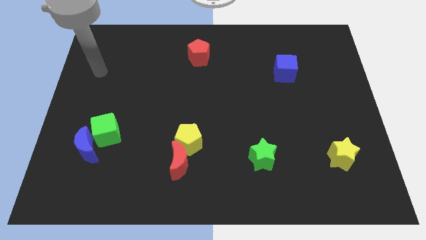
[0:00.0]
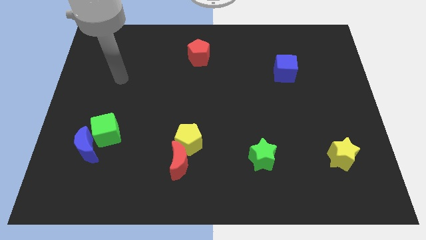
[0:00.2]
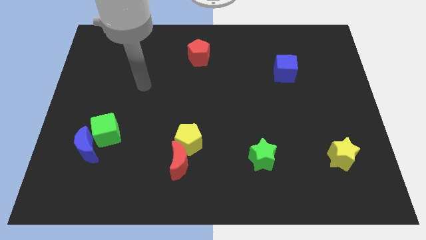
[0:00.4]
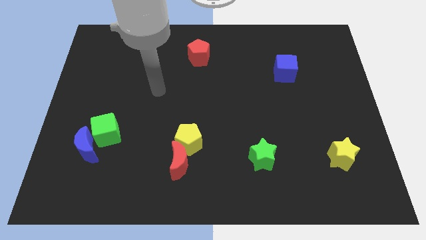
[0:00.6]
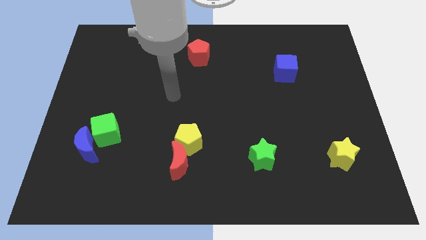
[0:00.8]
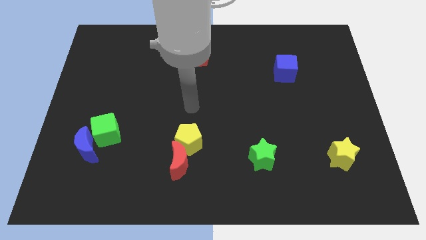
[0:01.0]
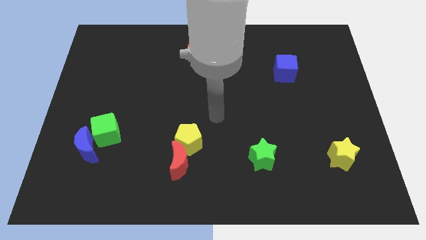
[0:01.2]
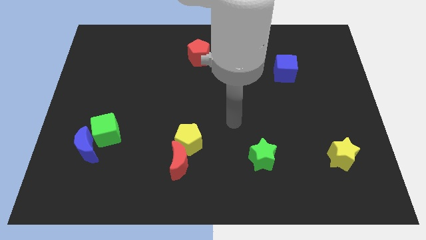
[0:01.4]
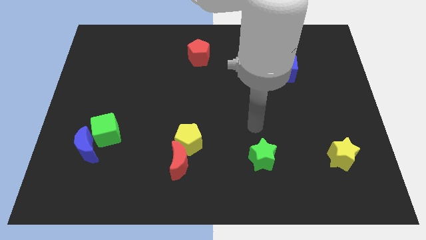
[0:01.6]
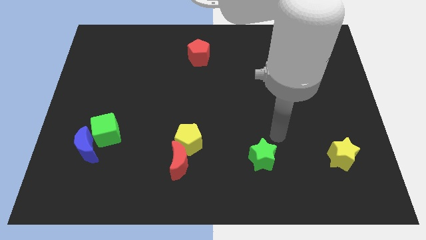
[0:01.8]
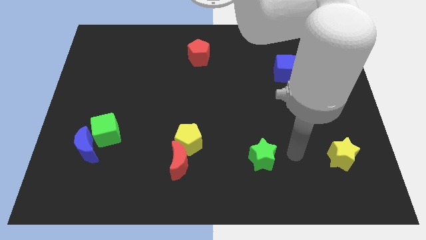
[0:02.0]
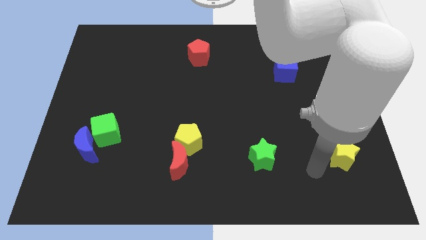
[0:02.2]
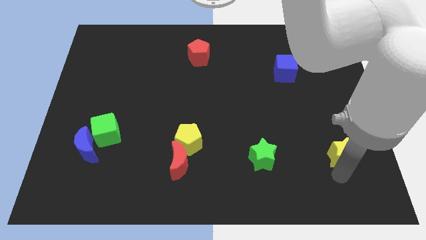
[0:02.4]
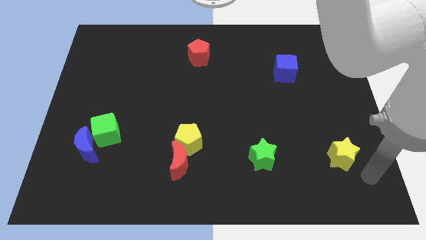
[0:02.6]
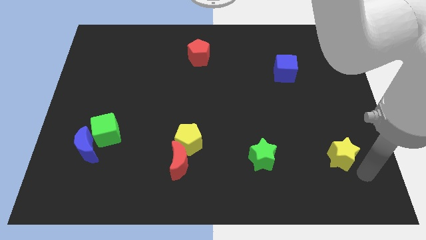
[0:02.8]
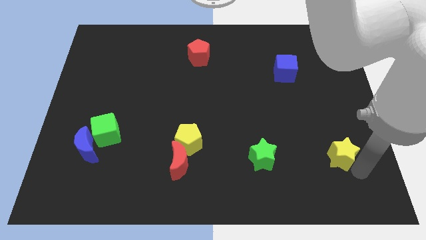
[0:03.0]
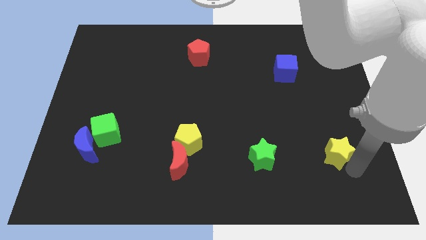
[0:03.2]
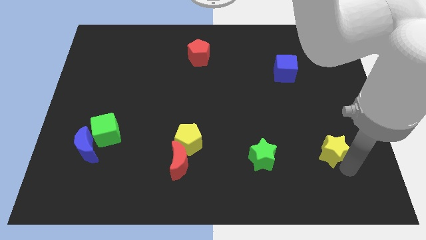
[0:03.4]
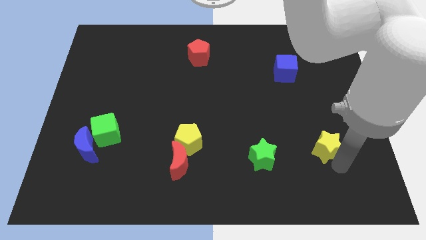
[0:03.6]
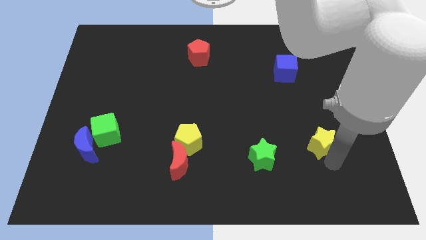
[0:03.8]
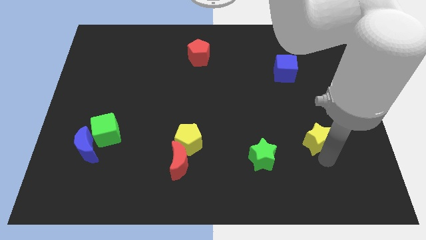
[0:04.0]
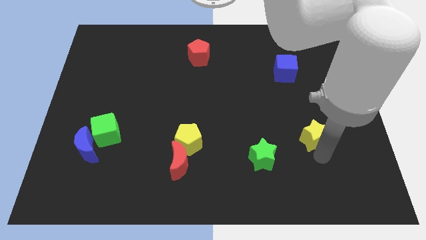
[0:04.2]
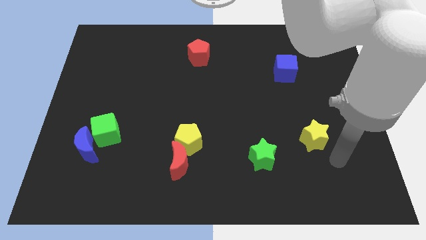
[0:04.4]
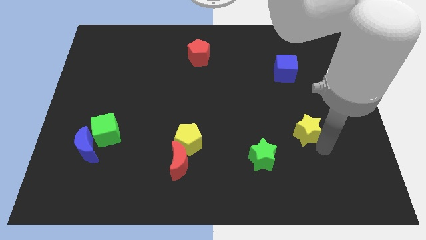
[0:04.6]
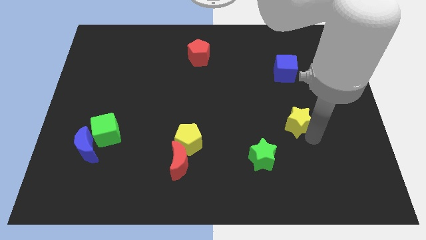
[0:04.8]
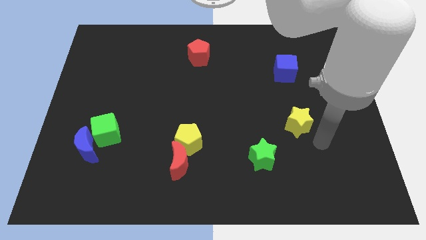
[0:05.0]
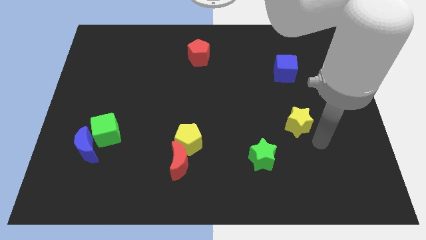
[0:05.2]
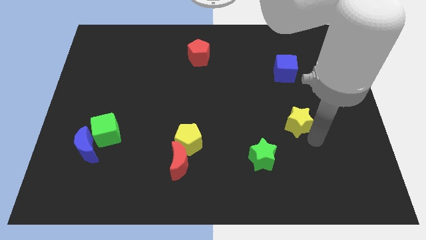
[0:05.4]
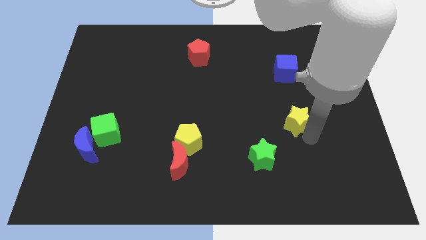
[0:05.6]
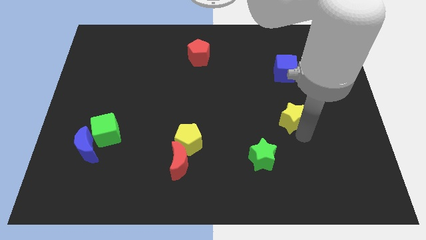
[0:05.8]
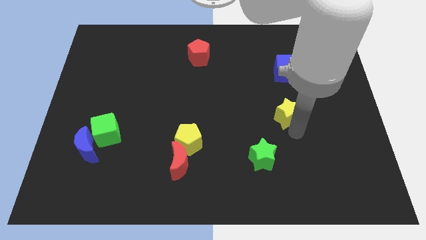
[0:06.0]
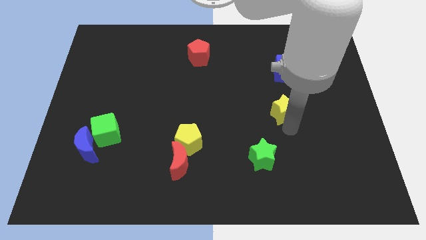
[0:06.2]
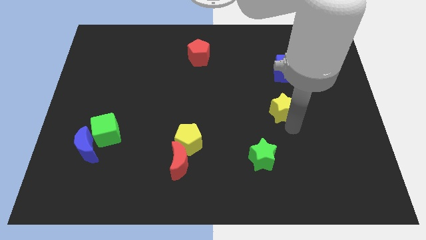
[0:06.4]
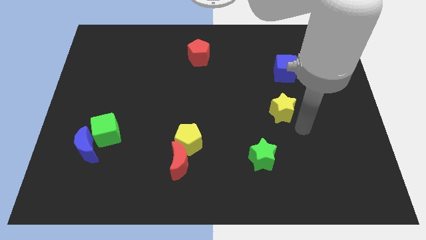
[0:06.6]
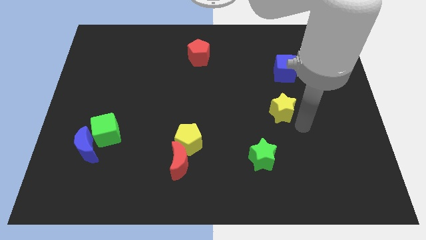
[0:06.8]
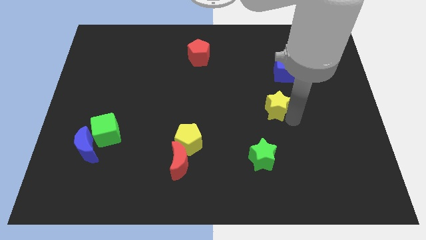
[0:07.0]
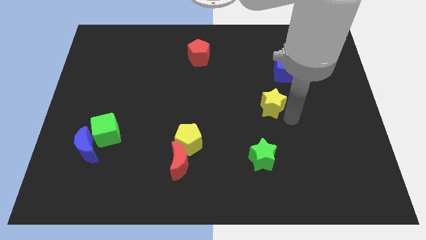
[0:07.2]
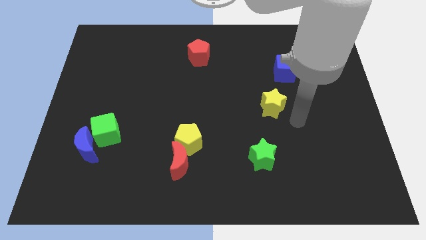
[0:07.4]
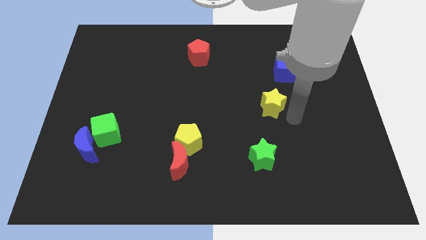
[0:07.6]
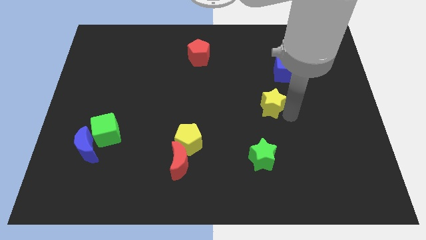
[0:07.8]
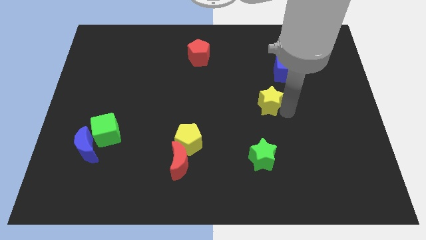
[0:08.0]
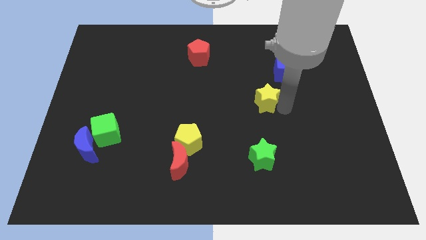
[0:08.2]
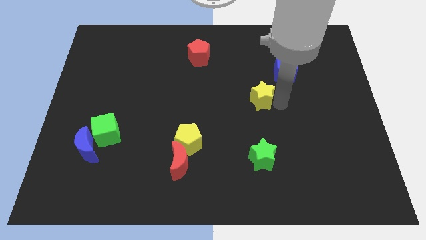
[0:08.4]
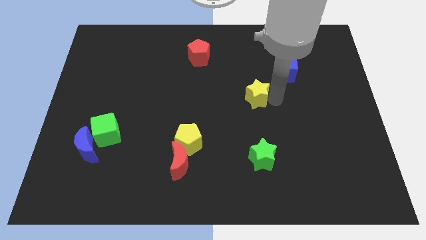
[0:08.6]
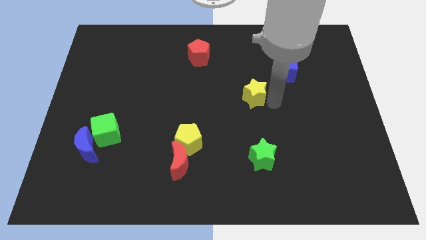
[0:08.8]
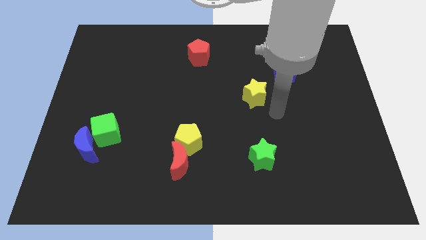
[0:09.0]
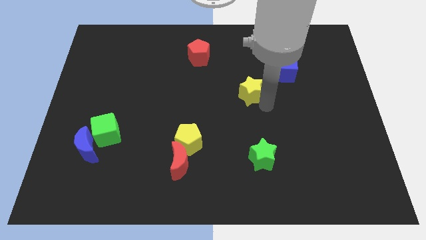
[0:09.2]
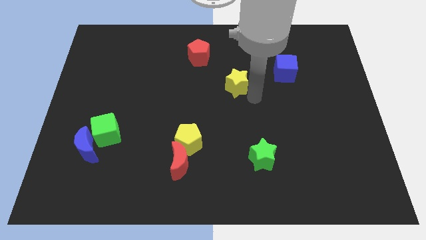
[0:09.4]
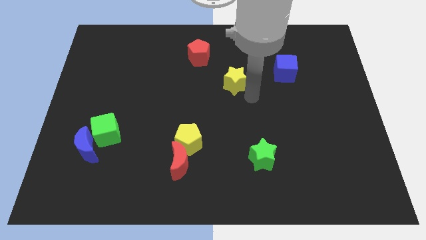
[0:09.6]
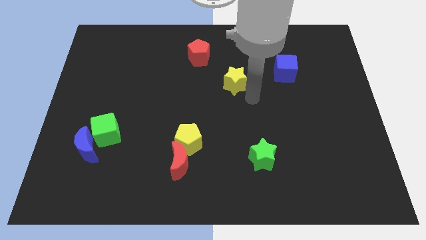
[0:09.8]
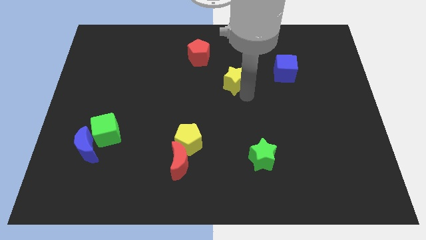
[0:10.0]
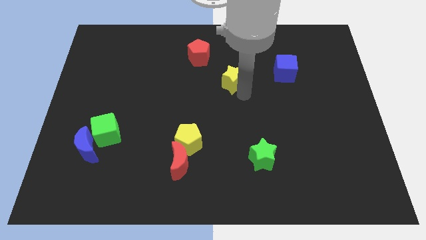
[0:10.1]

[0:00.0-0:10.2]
push the yellow star to the bottom right side of the red pentagon

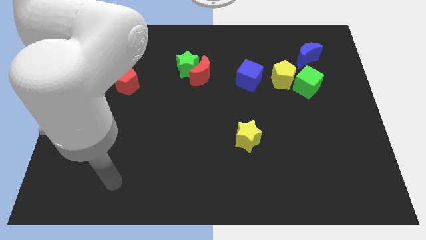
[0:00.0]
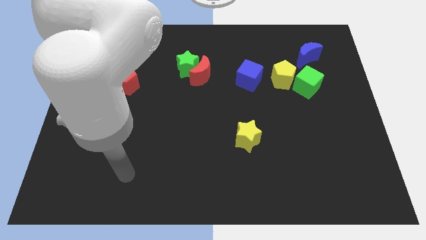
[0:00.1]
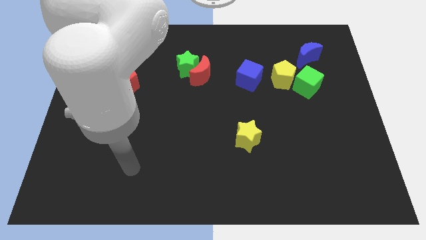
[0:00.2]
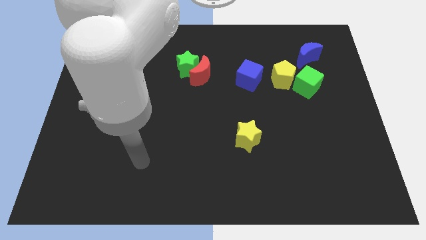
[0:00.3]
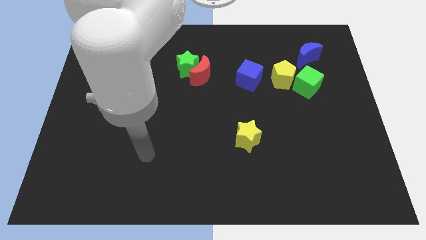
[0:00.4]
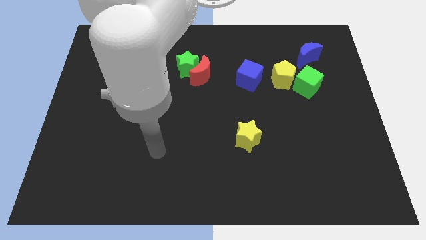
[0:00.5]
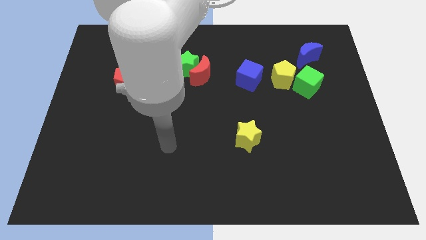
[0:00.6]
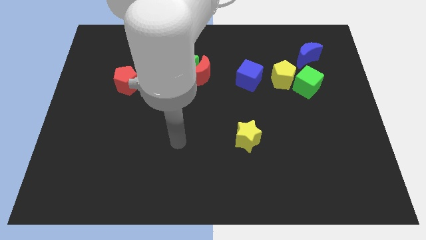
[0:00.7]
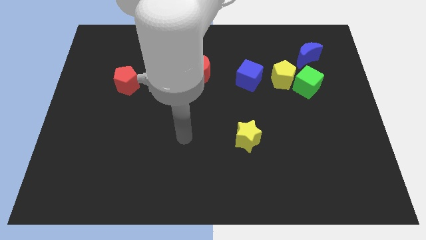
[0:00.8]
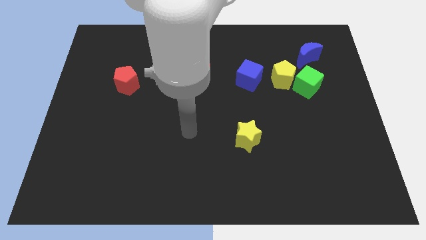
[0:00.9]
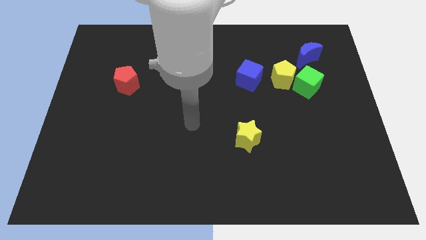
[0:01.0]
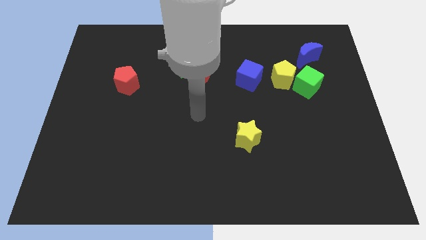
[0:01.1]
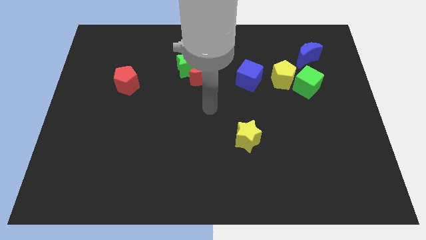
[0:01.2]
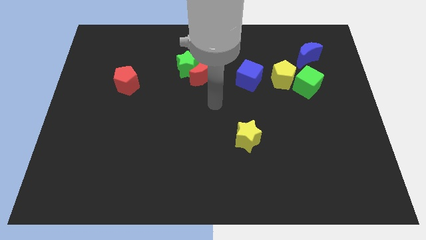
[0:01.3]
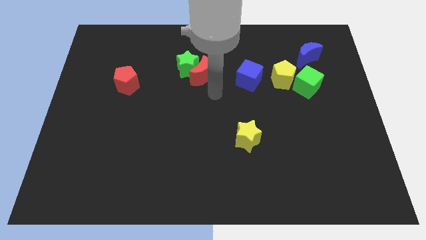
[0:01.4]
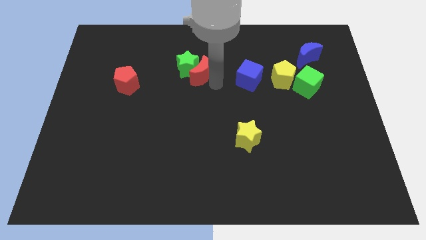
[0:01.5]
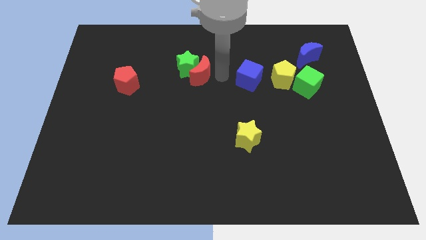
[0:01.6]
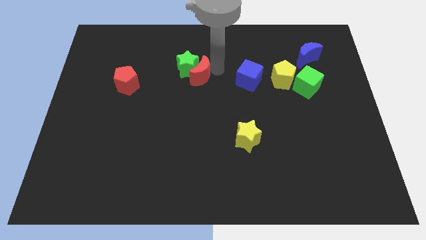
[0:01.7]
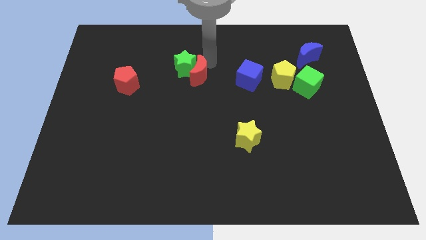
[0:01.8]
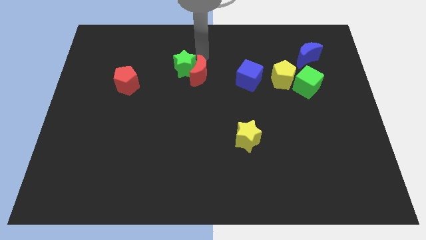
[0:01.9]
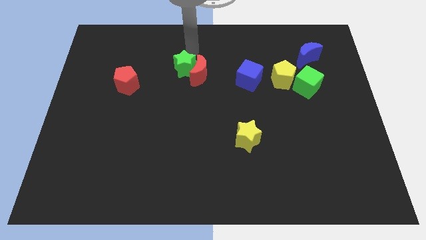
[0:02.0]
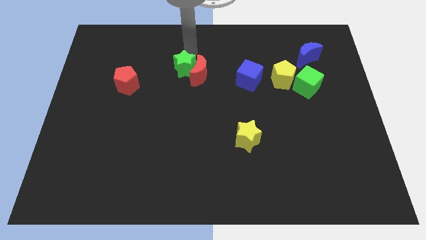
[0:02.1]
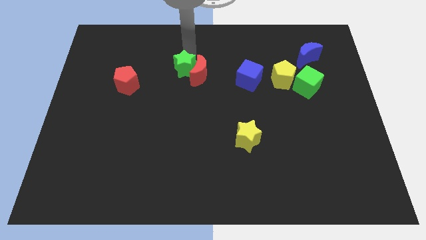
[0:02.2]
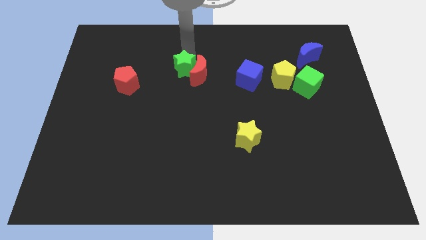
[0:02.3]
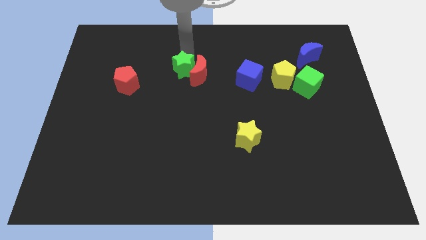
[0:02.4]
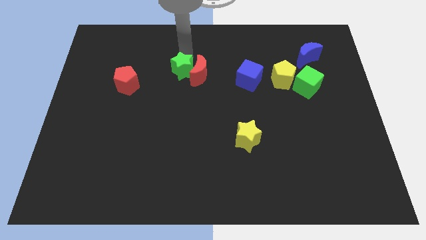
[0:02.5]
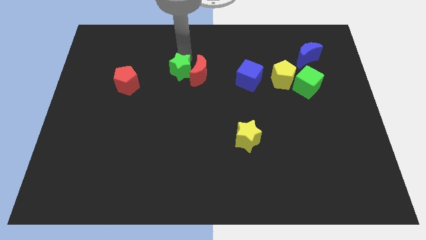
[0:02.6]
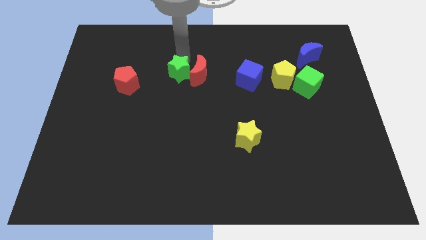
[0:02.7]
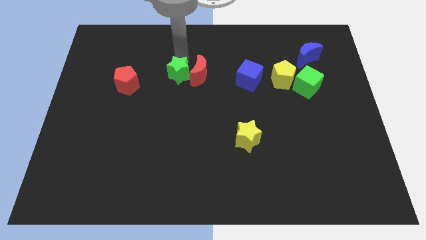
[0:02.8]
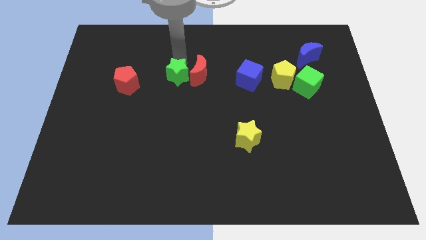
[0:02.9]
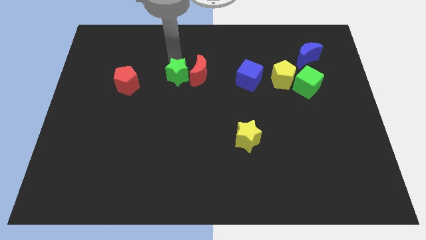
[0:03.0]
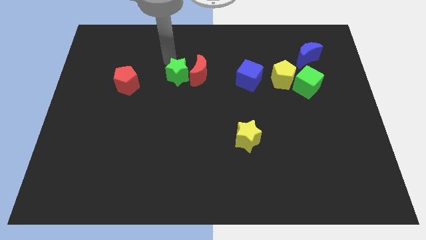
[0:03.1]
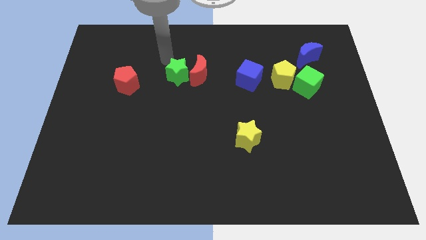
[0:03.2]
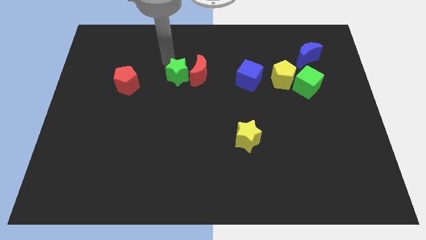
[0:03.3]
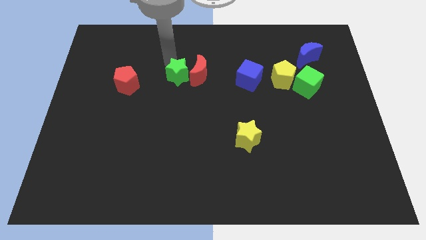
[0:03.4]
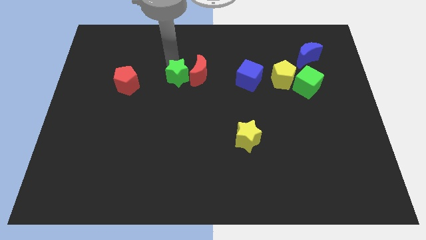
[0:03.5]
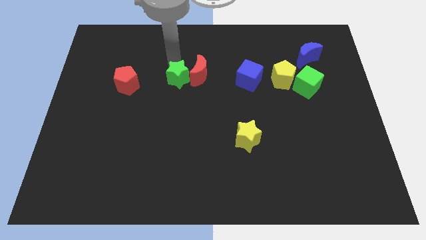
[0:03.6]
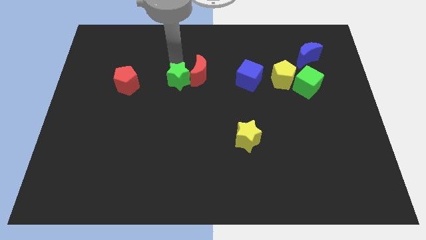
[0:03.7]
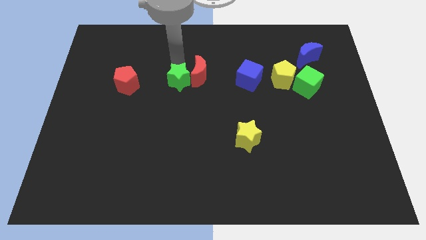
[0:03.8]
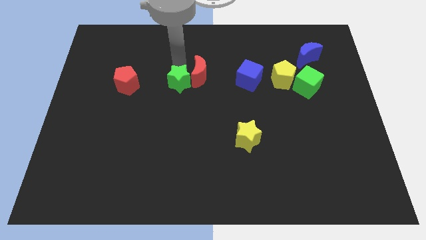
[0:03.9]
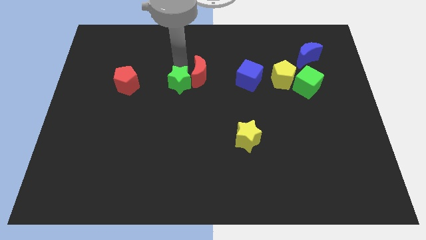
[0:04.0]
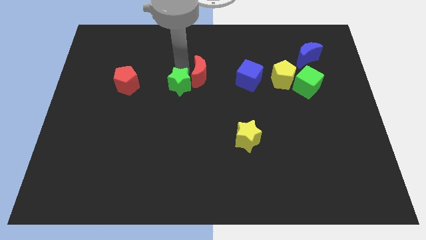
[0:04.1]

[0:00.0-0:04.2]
put the green star to the bottom side of the red moon
